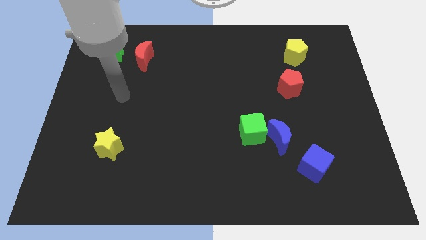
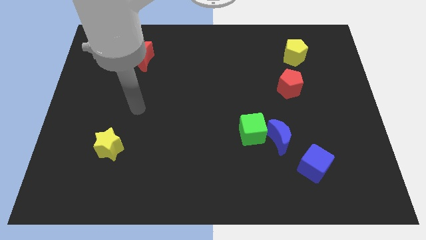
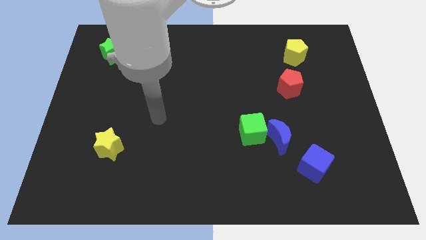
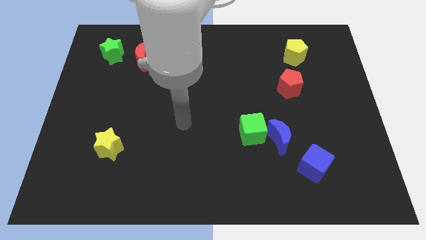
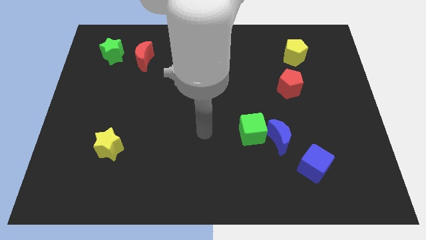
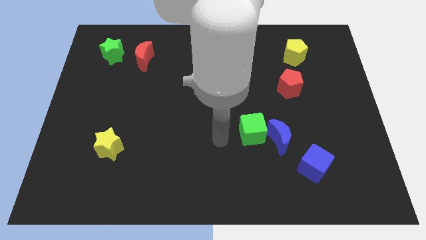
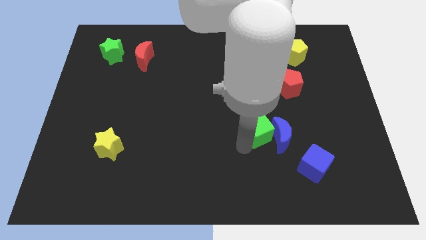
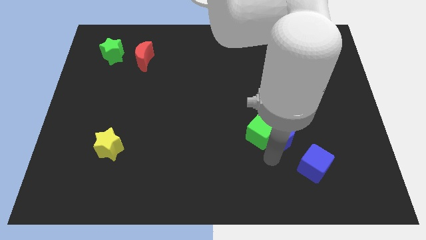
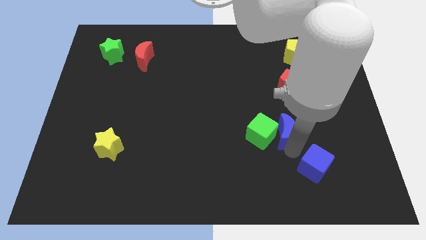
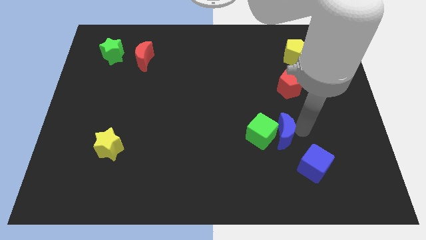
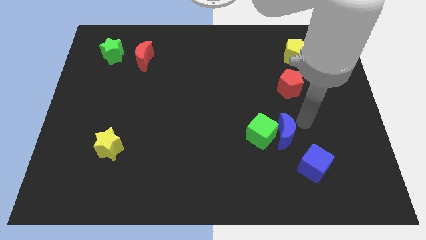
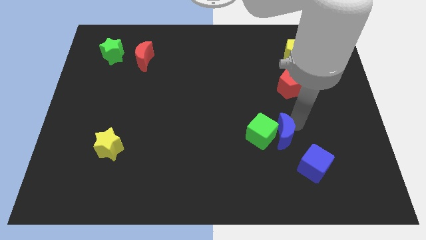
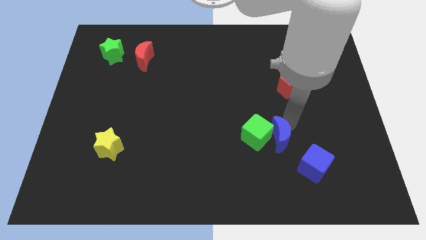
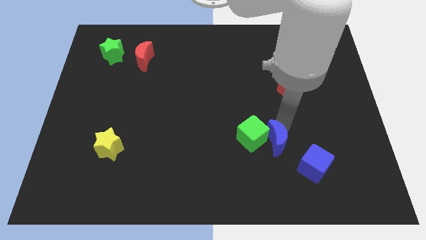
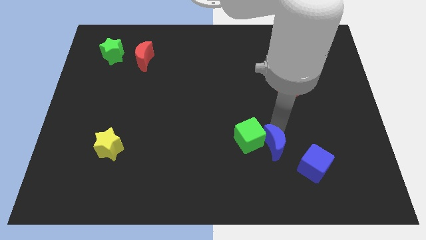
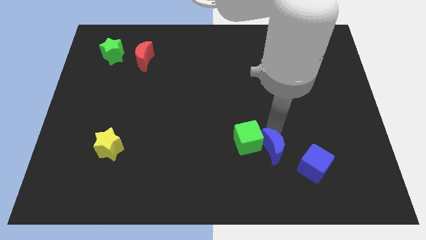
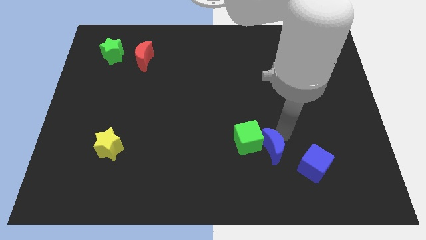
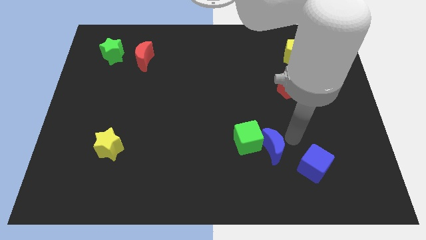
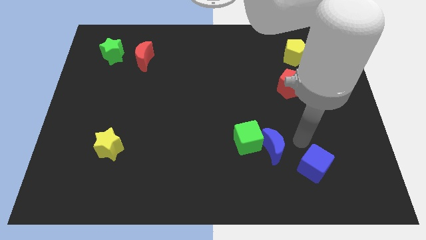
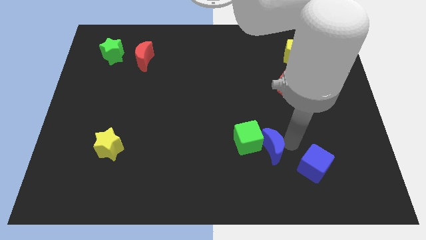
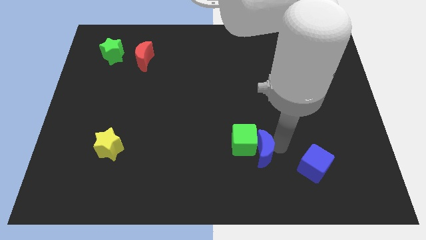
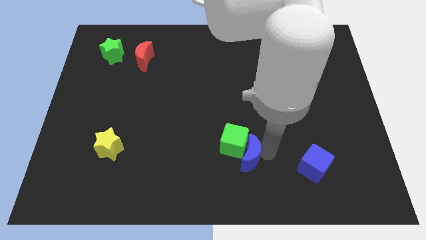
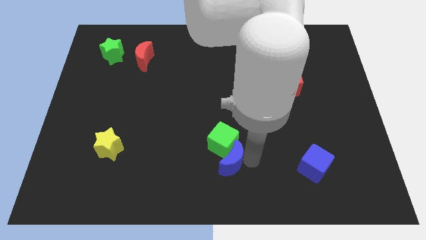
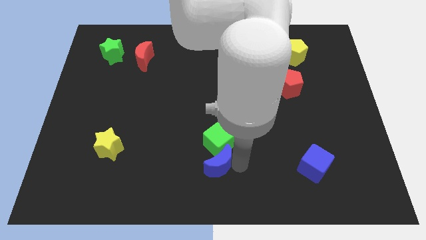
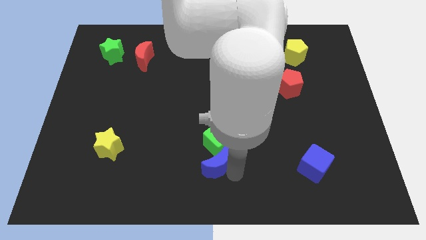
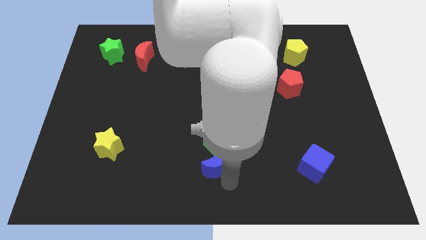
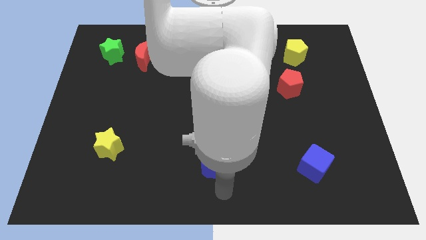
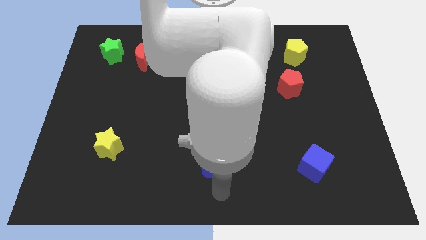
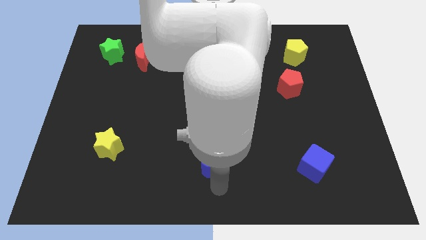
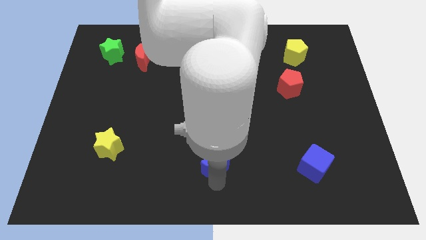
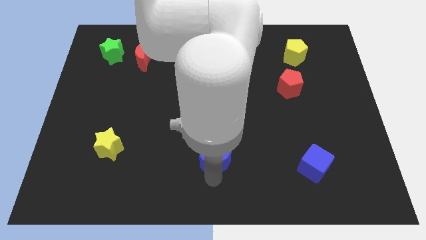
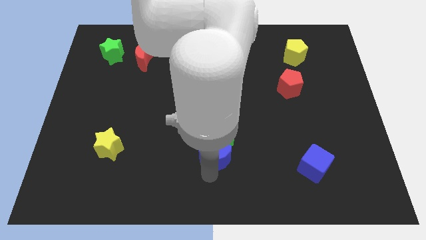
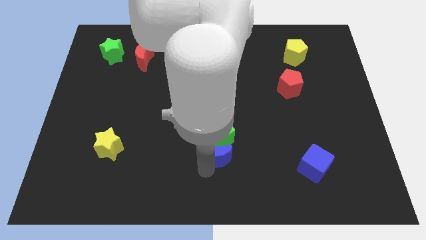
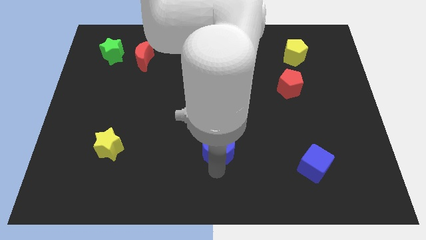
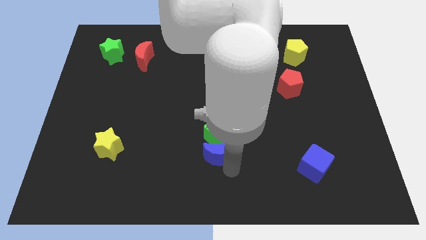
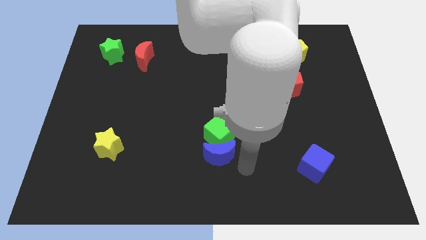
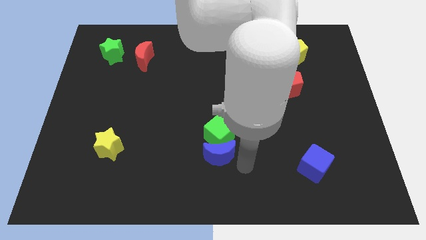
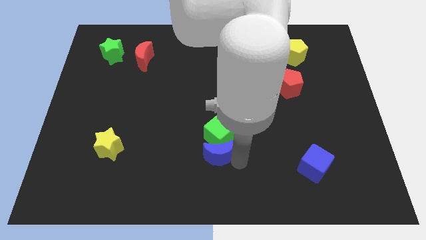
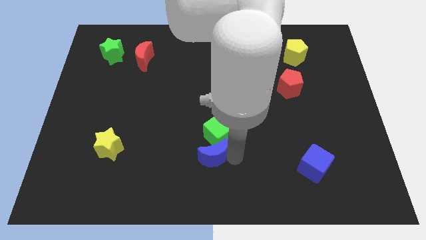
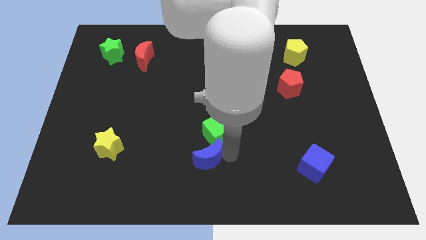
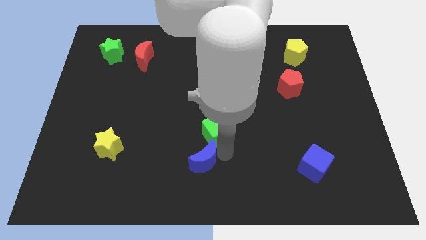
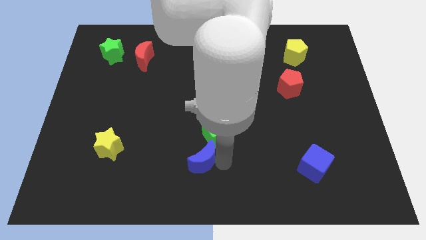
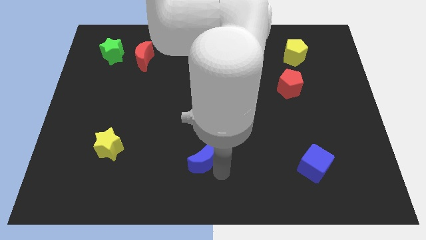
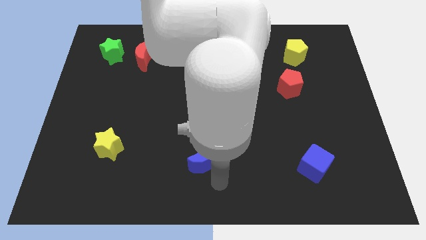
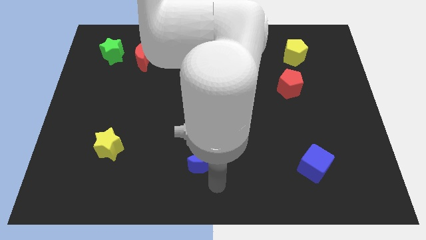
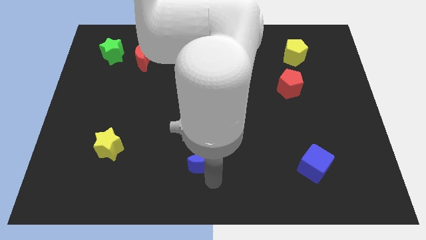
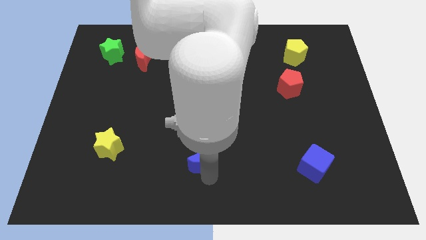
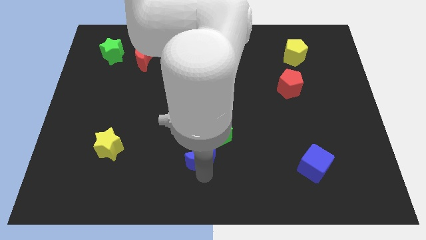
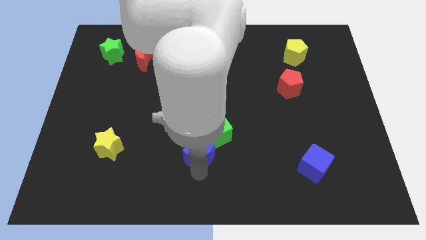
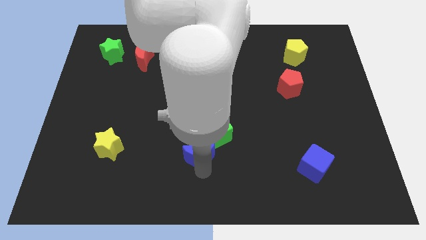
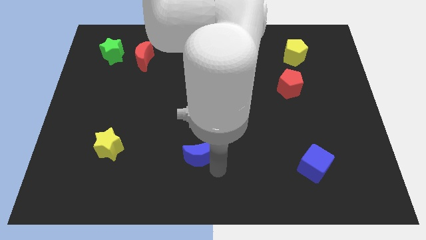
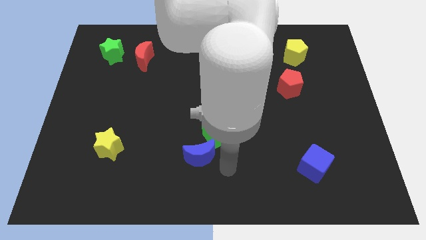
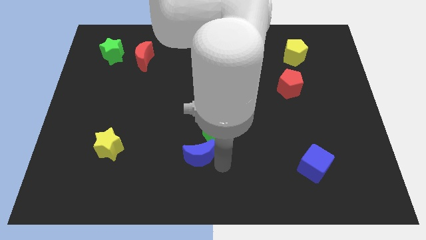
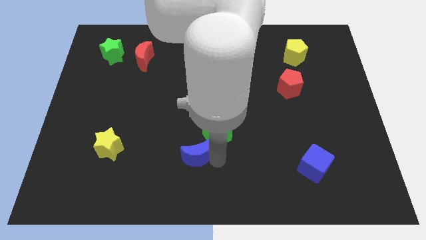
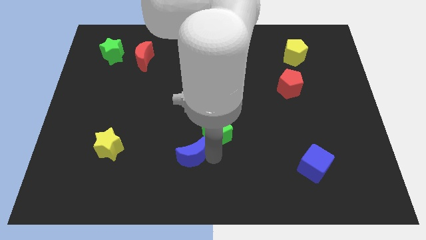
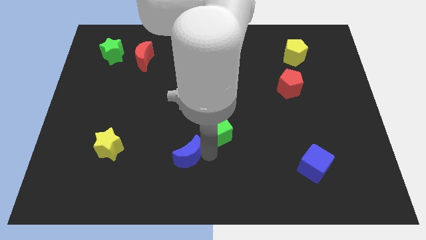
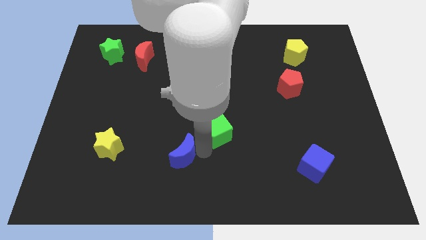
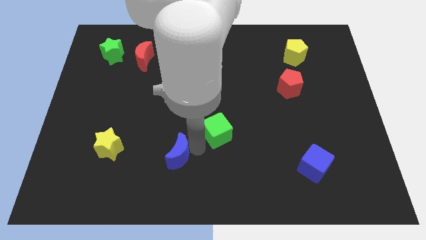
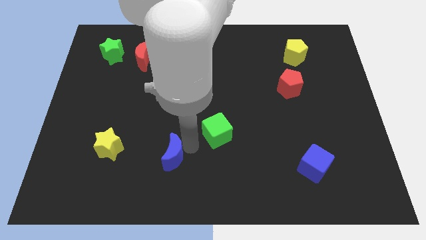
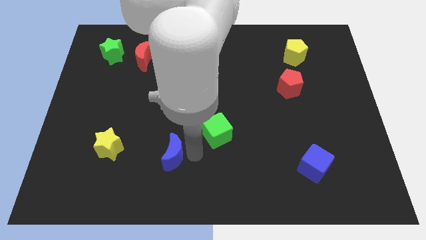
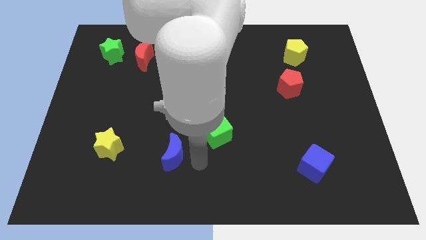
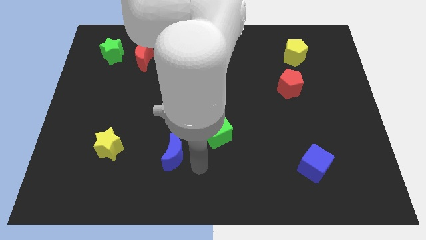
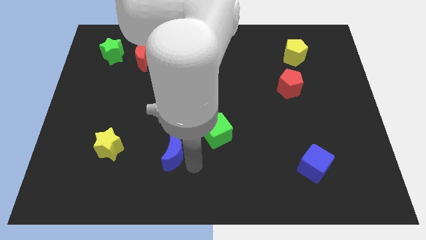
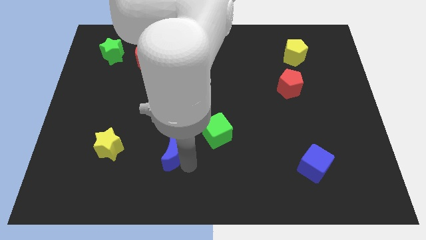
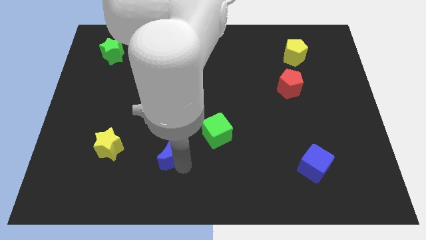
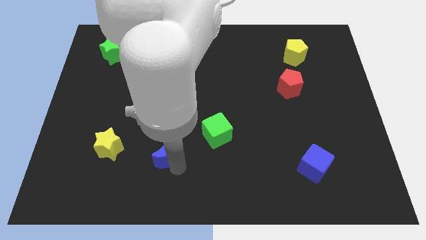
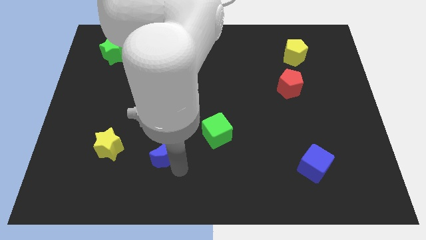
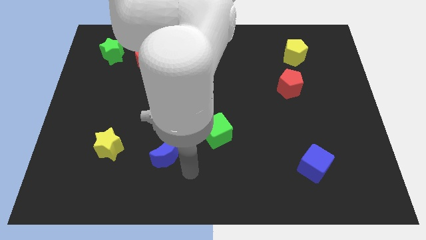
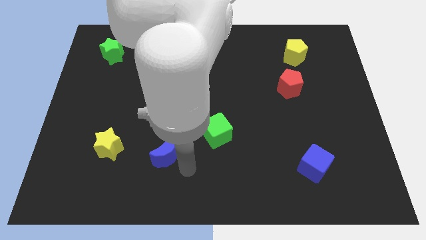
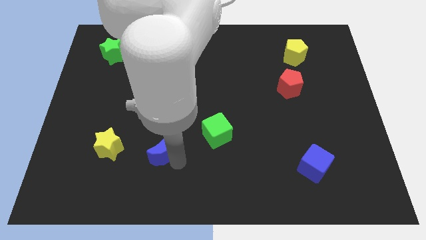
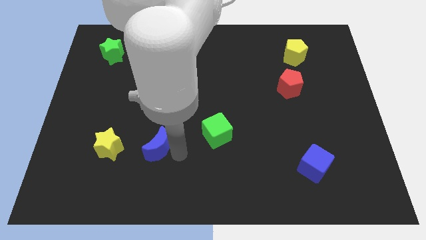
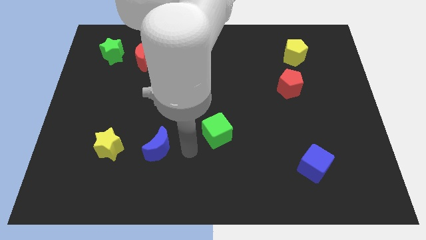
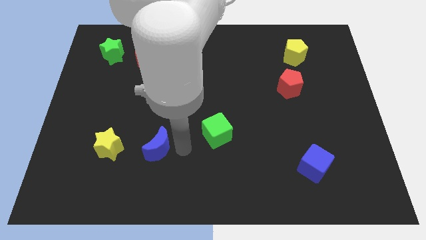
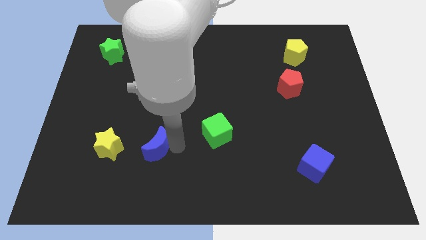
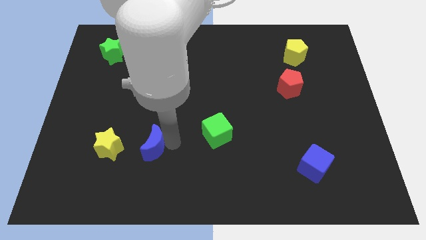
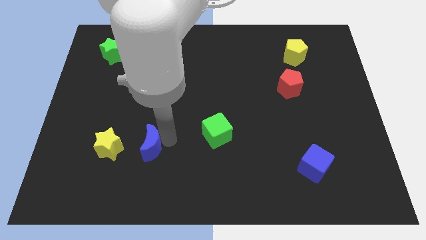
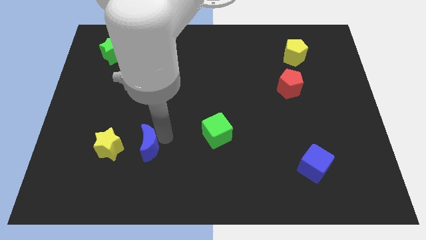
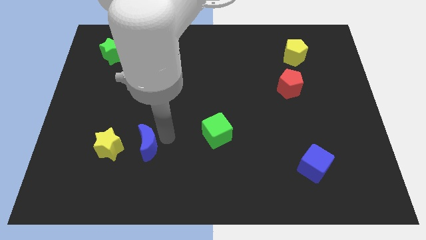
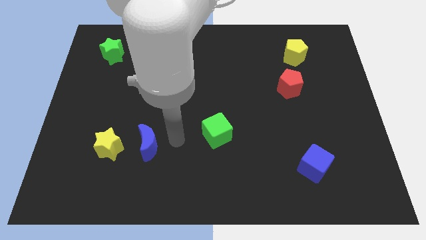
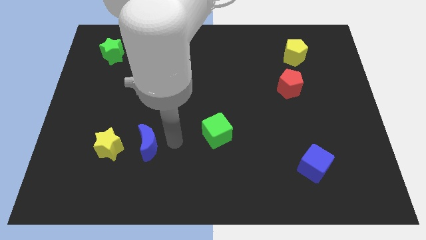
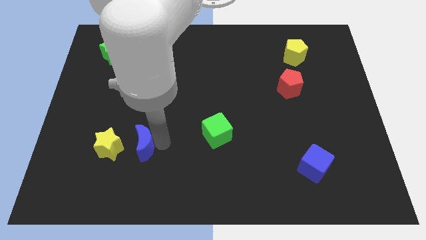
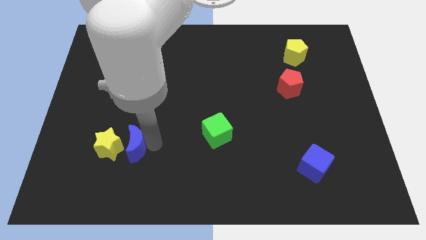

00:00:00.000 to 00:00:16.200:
move the blue moon towards the yellow star

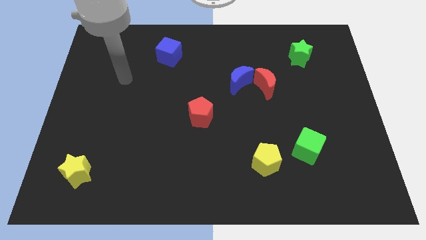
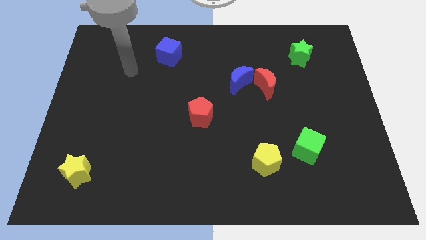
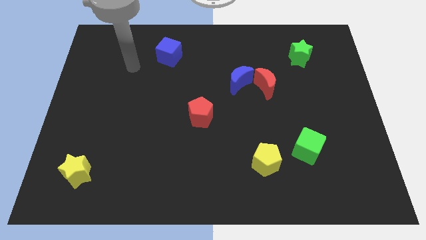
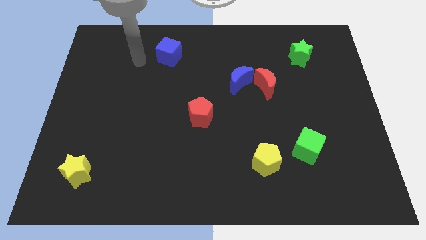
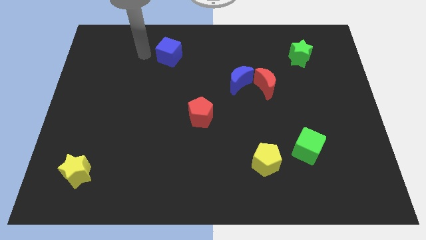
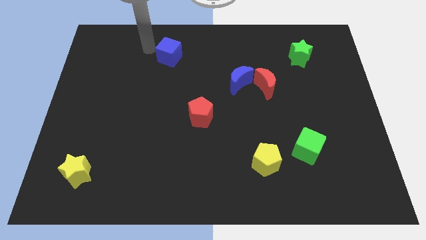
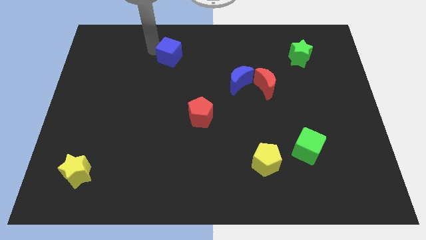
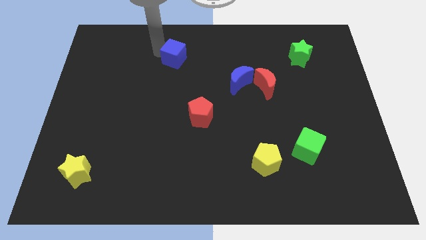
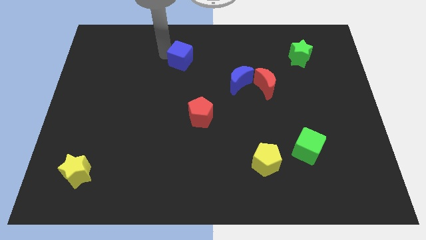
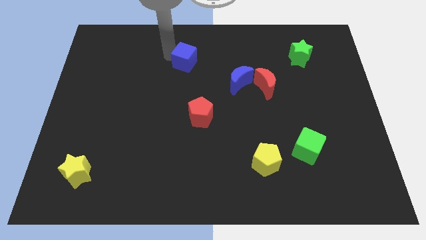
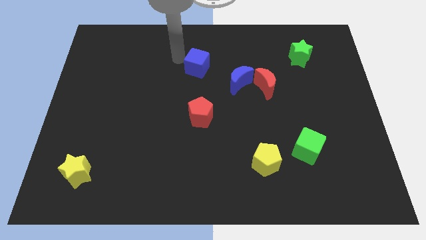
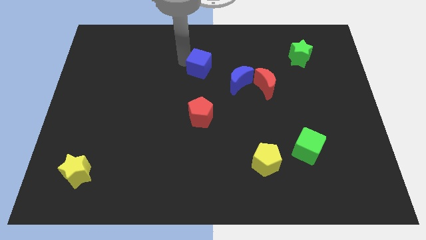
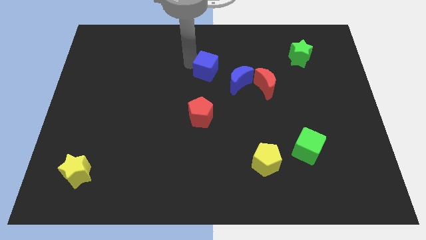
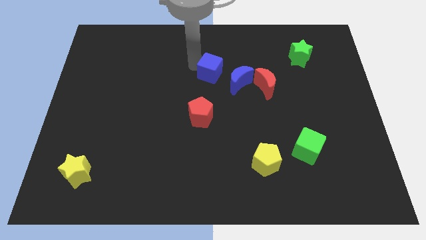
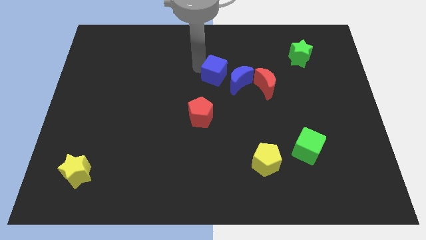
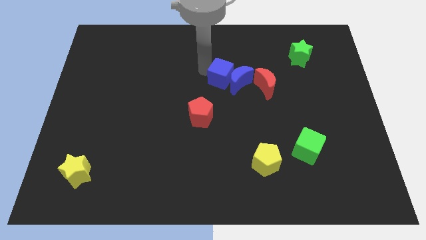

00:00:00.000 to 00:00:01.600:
move the blue cube close to the blue moon
